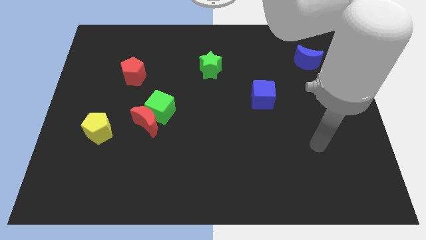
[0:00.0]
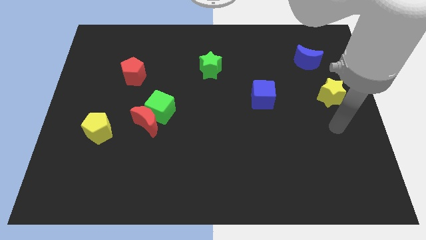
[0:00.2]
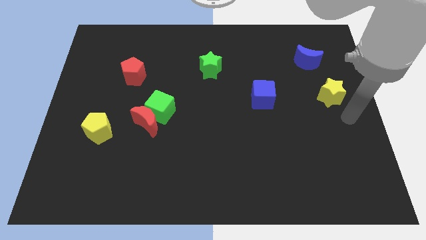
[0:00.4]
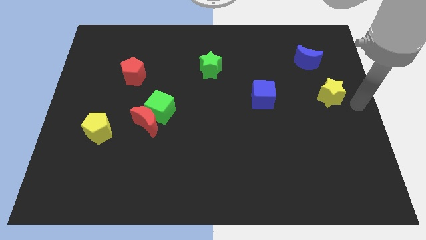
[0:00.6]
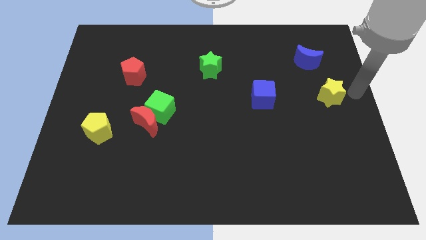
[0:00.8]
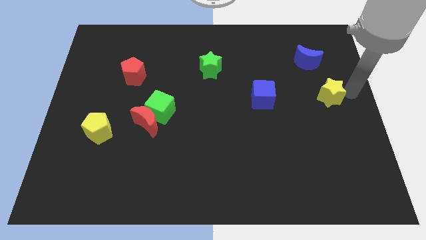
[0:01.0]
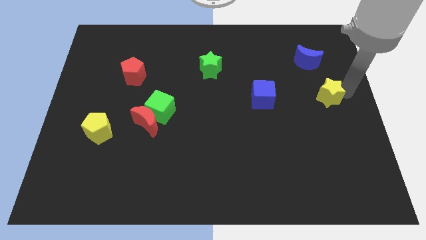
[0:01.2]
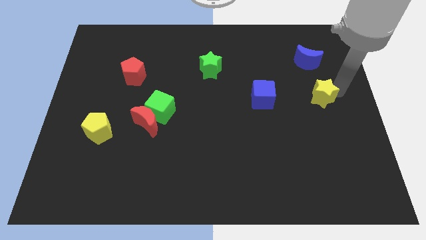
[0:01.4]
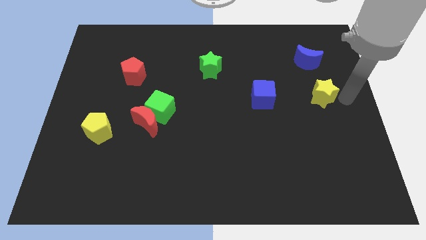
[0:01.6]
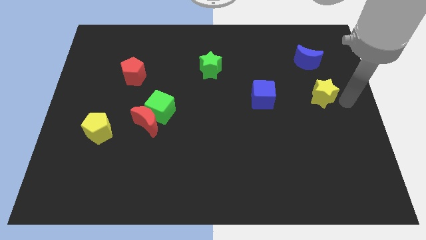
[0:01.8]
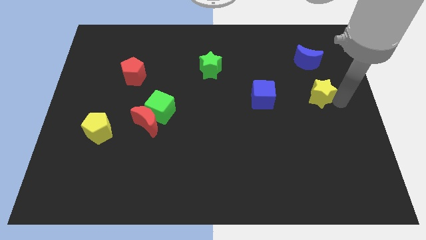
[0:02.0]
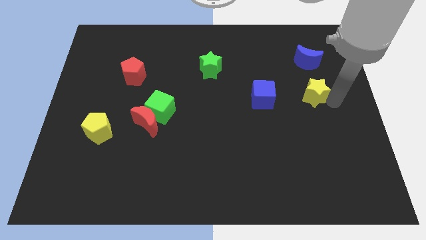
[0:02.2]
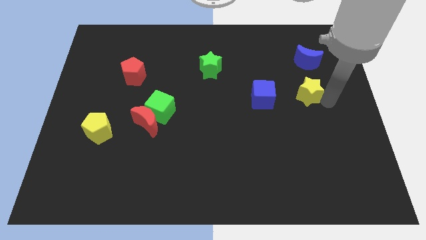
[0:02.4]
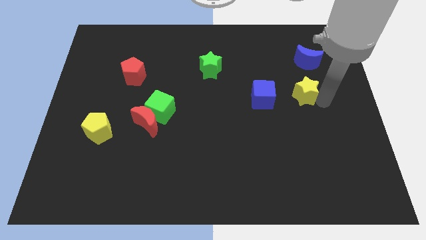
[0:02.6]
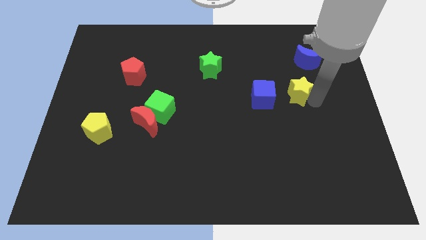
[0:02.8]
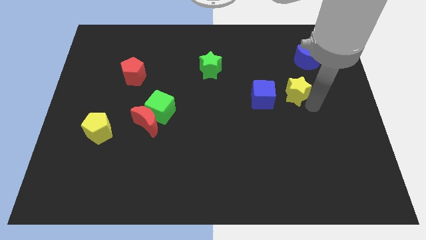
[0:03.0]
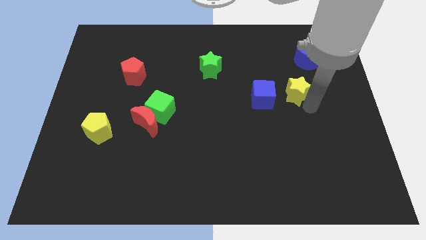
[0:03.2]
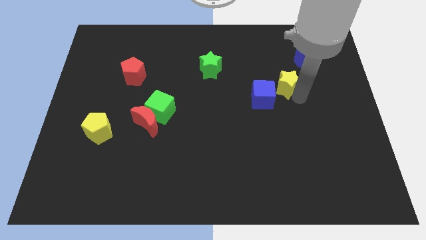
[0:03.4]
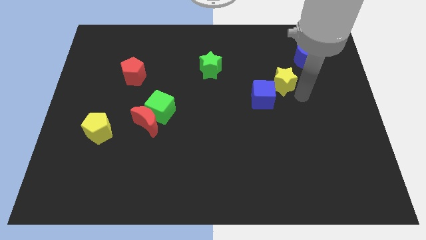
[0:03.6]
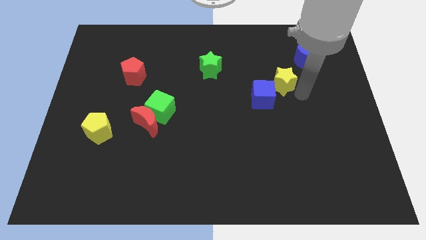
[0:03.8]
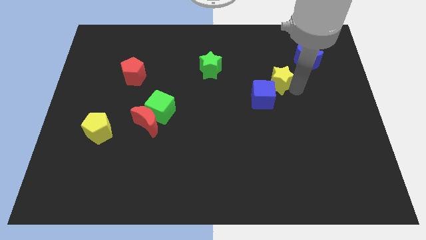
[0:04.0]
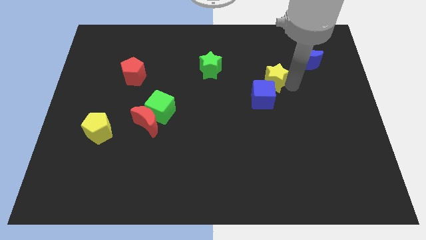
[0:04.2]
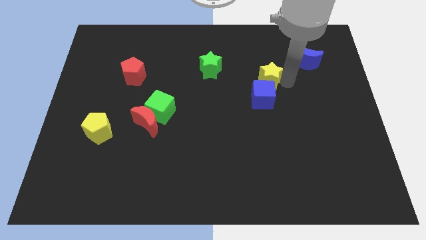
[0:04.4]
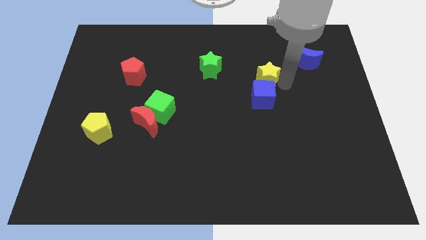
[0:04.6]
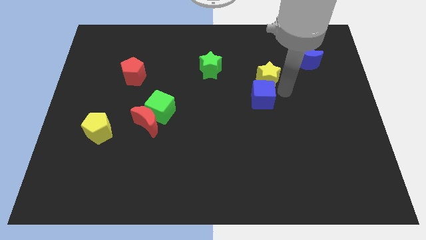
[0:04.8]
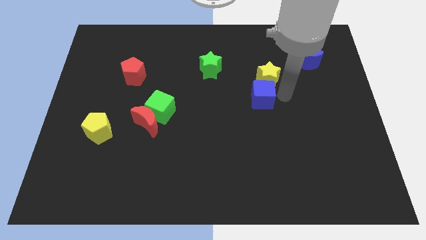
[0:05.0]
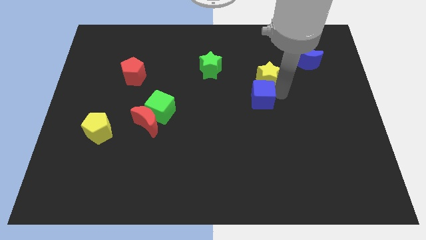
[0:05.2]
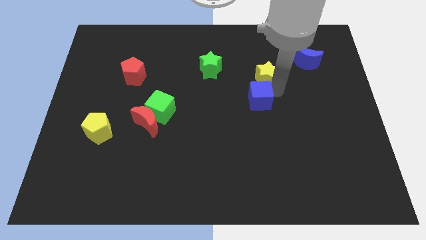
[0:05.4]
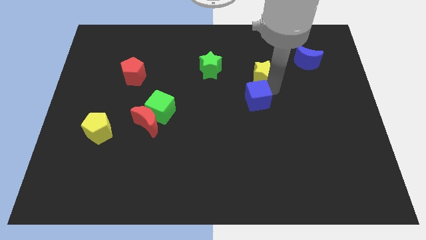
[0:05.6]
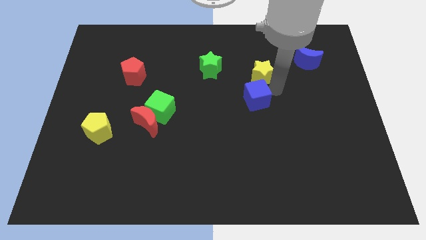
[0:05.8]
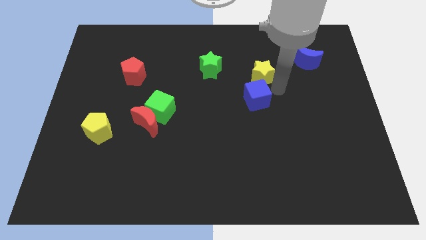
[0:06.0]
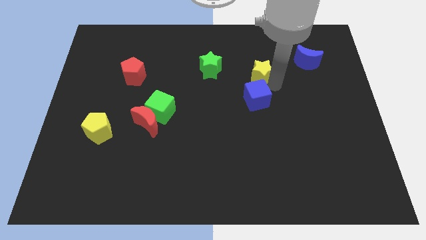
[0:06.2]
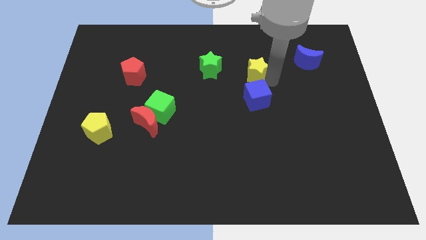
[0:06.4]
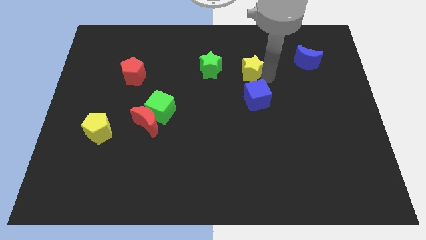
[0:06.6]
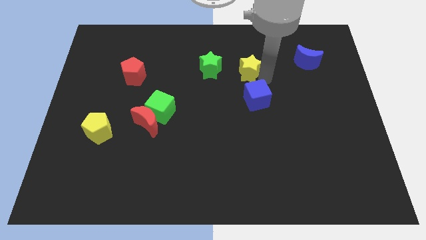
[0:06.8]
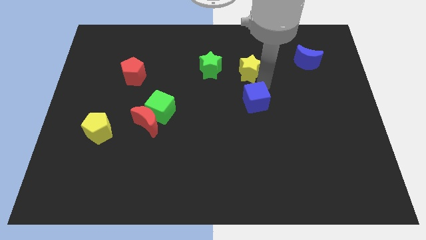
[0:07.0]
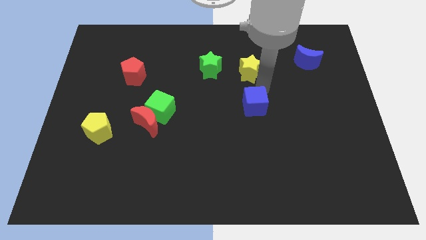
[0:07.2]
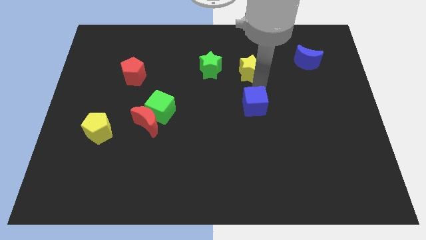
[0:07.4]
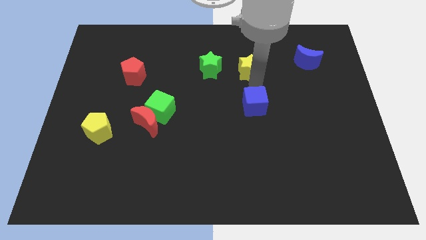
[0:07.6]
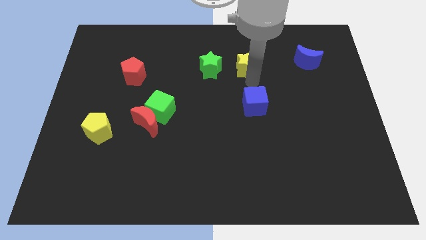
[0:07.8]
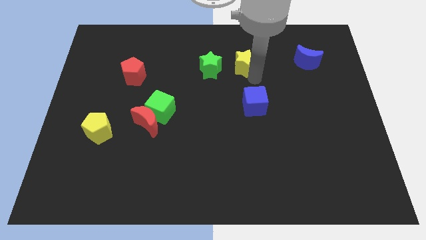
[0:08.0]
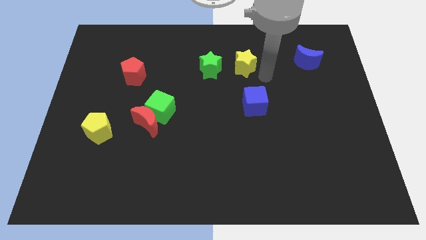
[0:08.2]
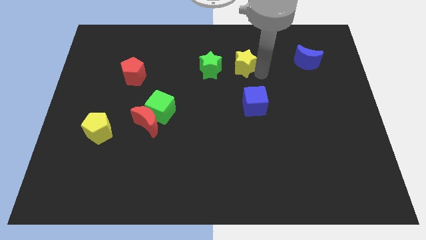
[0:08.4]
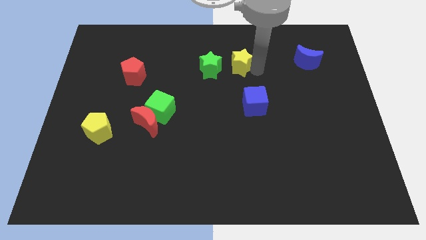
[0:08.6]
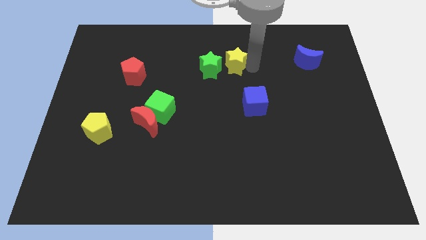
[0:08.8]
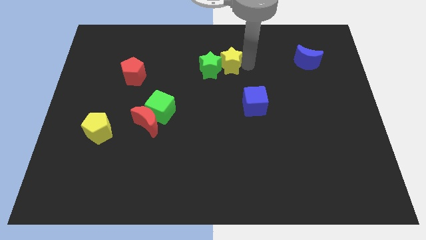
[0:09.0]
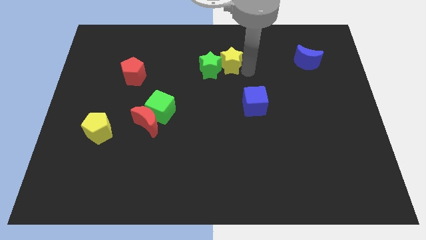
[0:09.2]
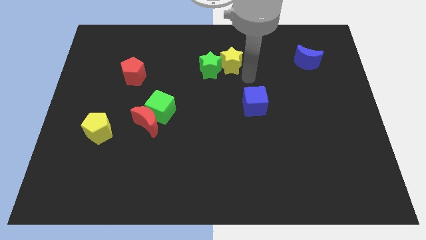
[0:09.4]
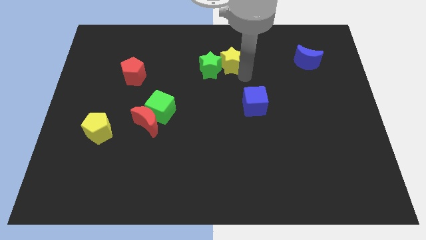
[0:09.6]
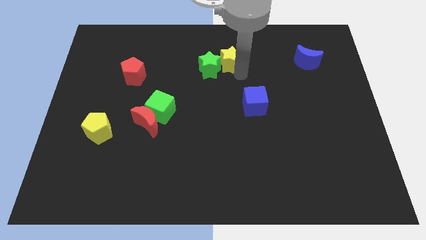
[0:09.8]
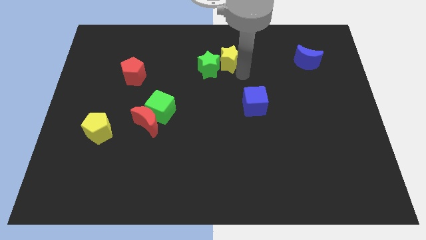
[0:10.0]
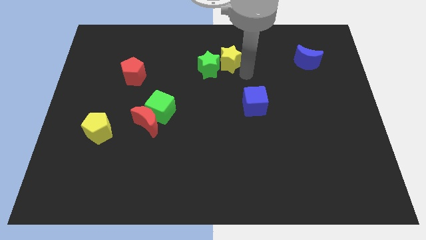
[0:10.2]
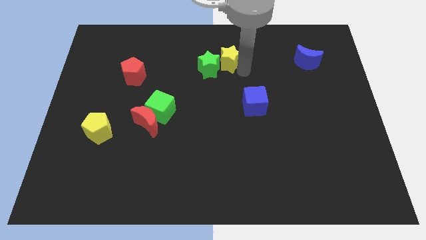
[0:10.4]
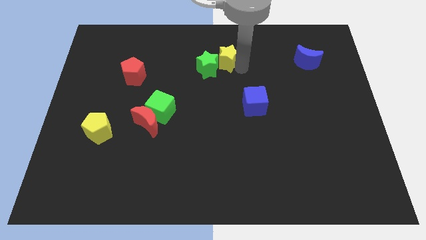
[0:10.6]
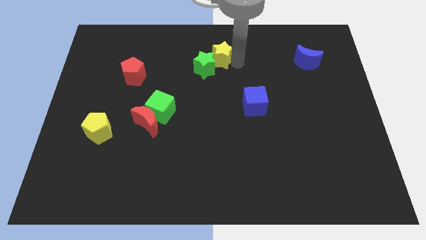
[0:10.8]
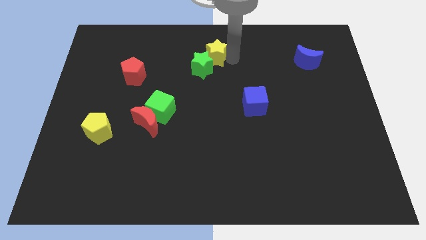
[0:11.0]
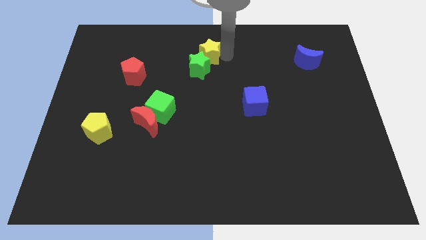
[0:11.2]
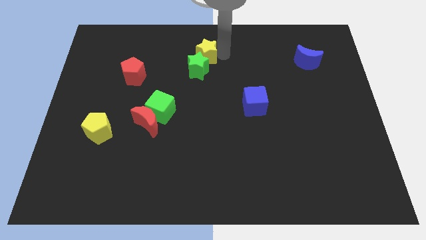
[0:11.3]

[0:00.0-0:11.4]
put the yellow star diagonally up and to the left of the green star

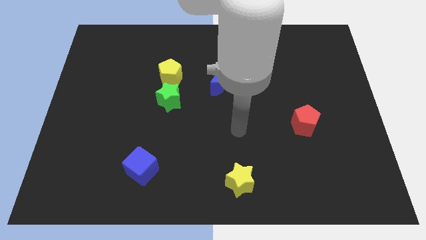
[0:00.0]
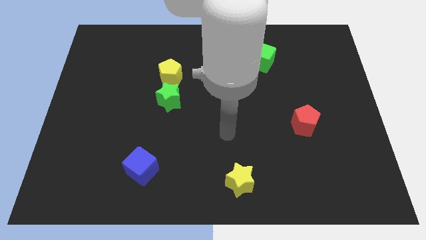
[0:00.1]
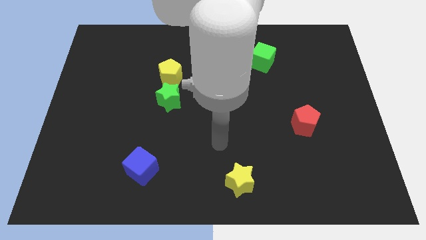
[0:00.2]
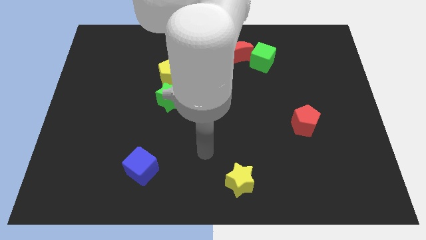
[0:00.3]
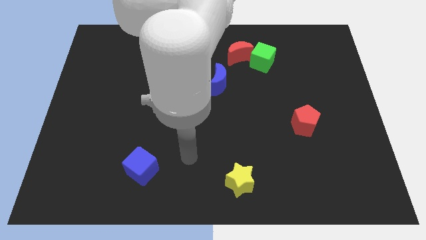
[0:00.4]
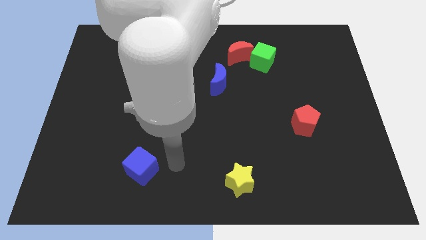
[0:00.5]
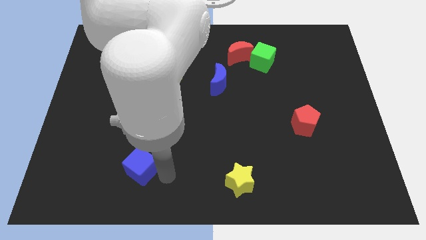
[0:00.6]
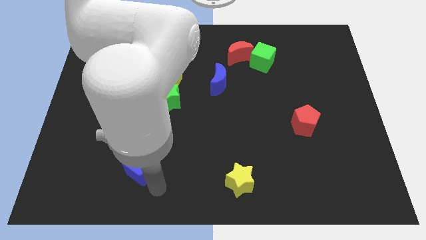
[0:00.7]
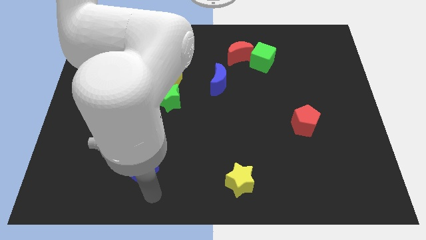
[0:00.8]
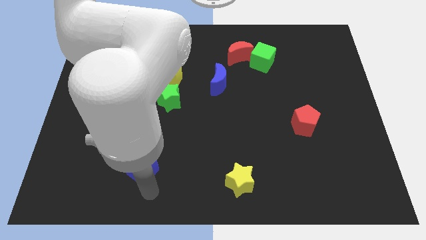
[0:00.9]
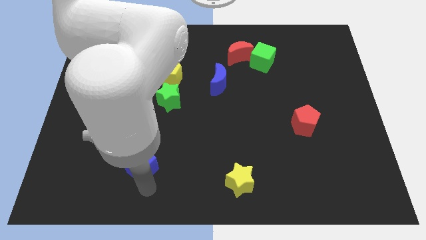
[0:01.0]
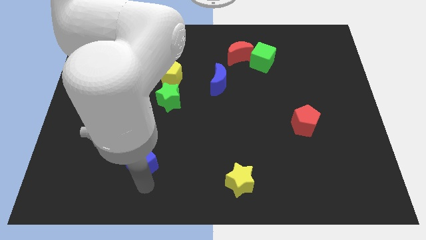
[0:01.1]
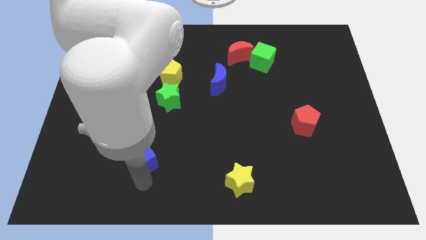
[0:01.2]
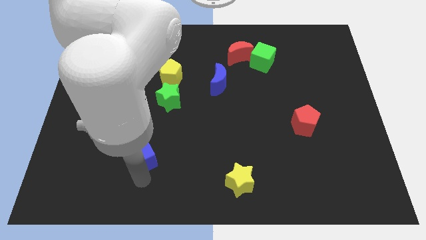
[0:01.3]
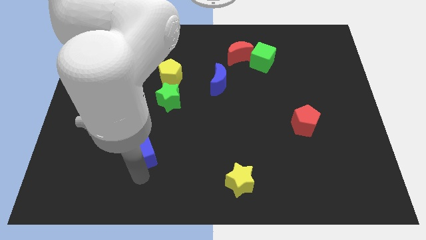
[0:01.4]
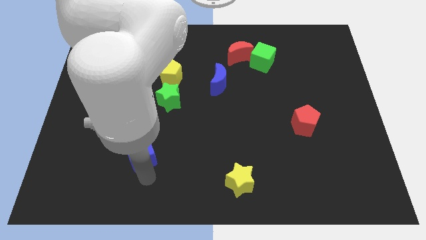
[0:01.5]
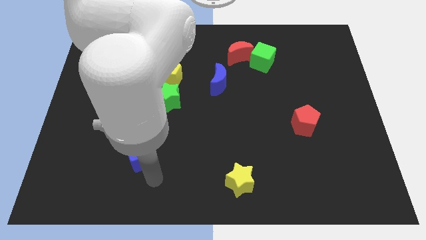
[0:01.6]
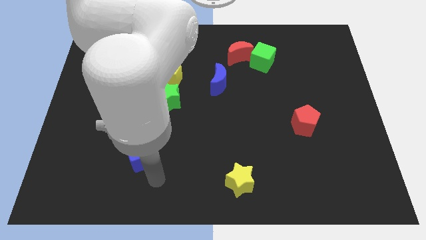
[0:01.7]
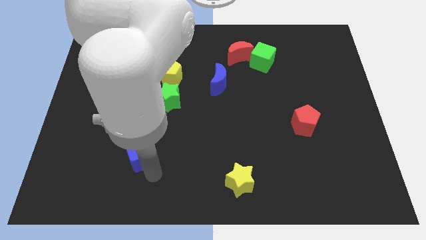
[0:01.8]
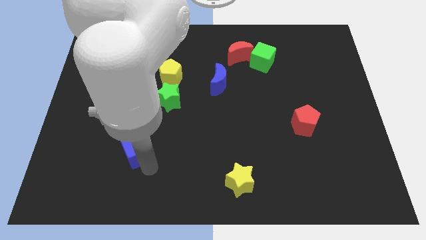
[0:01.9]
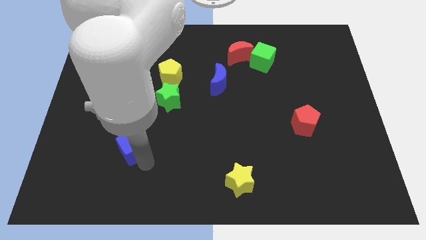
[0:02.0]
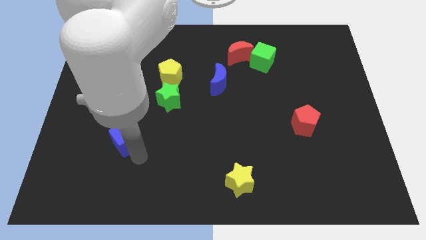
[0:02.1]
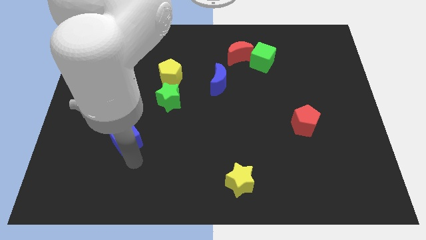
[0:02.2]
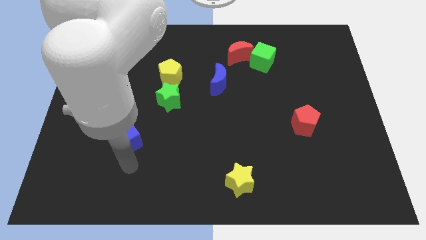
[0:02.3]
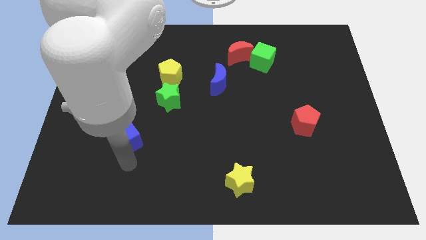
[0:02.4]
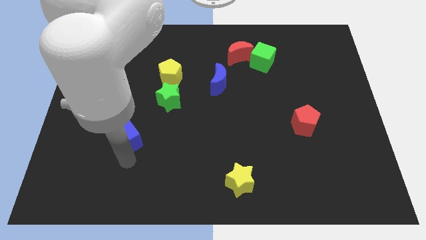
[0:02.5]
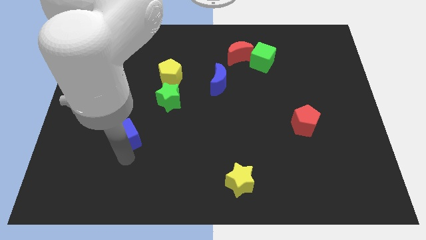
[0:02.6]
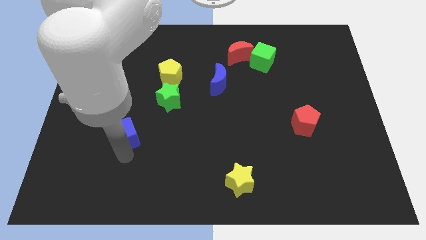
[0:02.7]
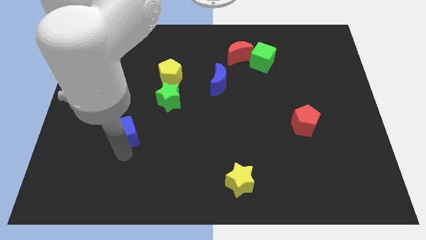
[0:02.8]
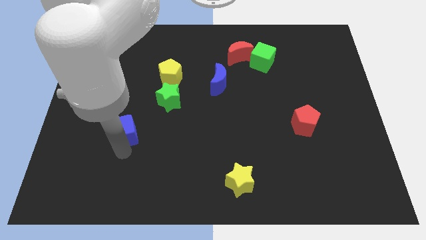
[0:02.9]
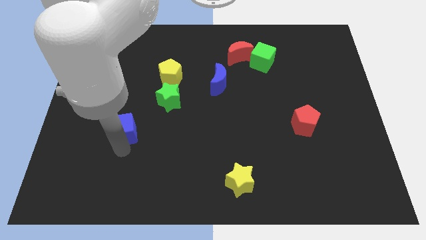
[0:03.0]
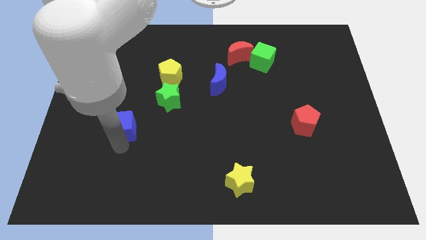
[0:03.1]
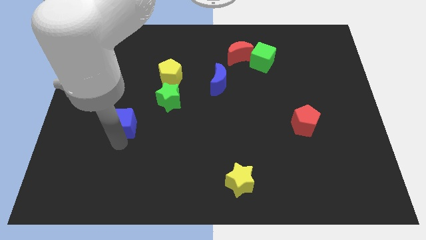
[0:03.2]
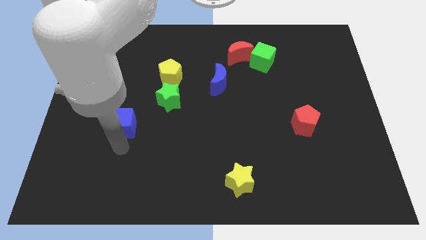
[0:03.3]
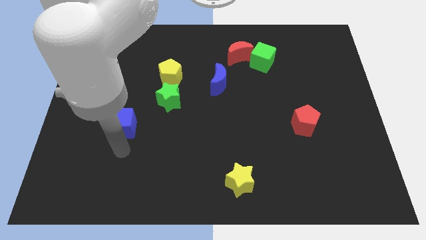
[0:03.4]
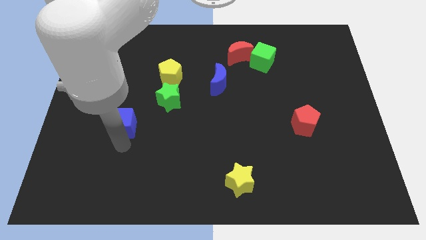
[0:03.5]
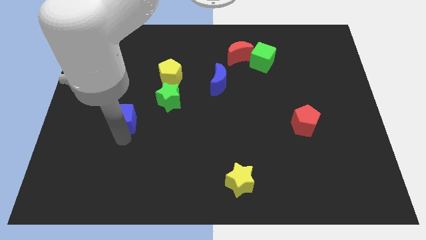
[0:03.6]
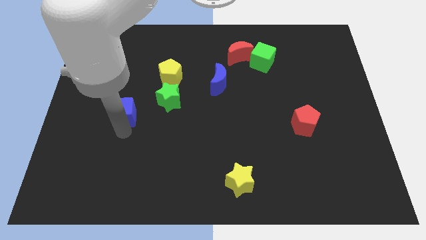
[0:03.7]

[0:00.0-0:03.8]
put the blue cube left of the green star
